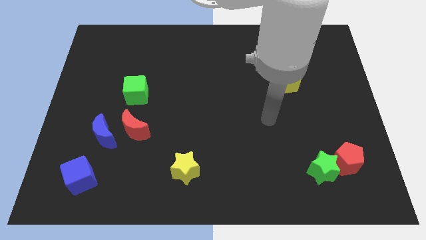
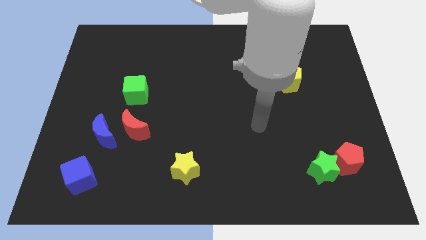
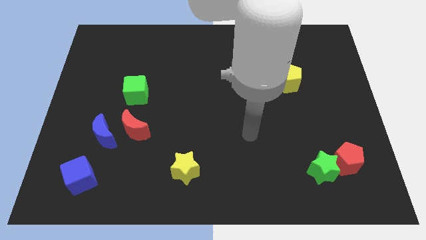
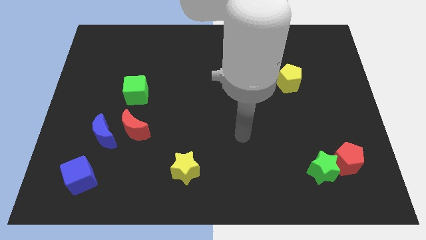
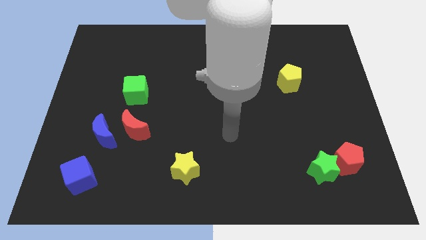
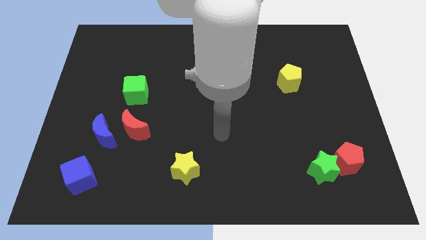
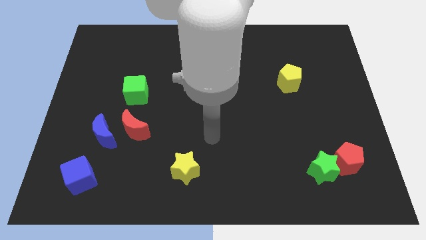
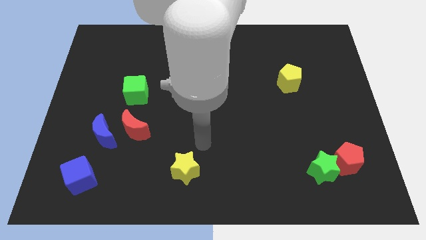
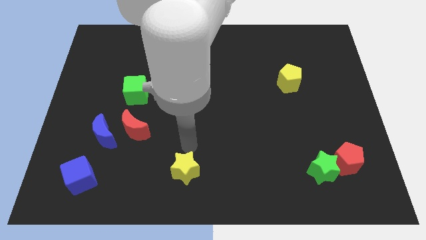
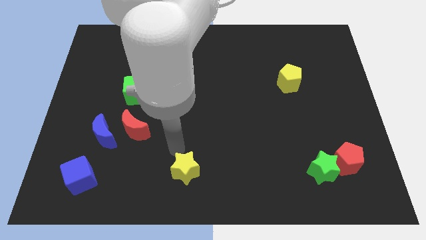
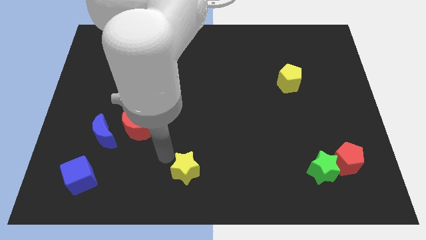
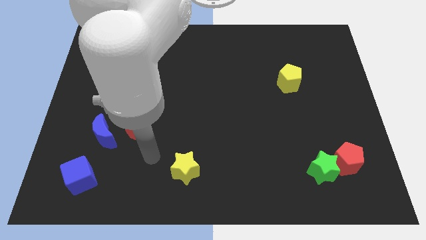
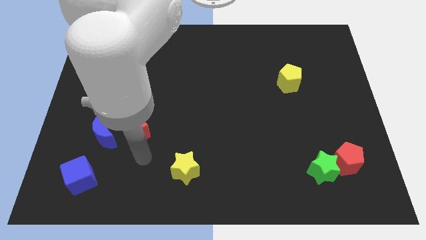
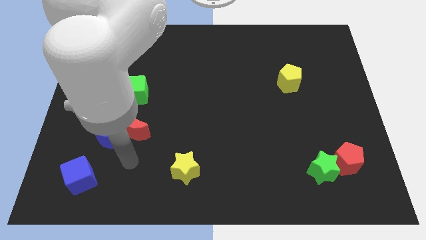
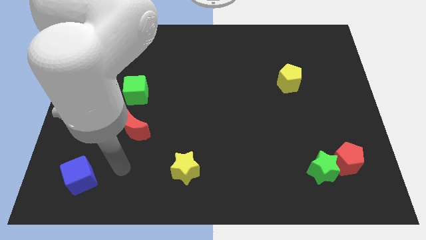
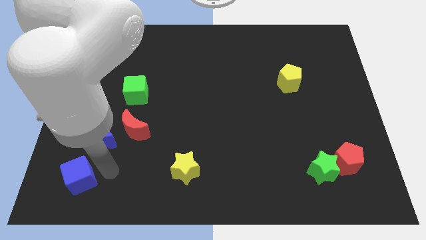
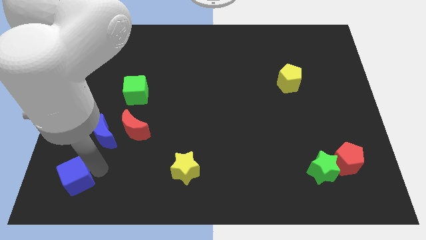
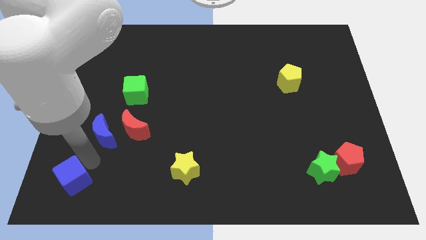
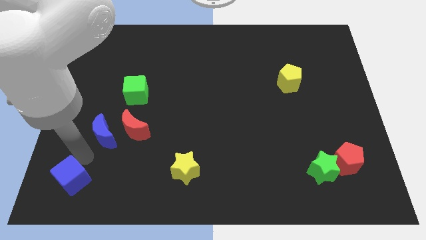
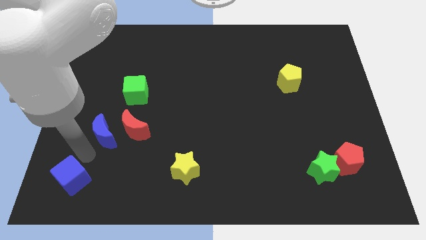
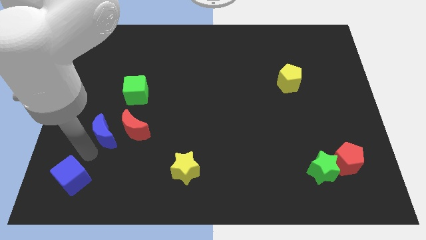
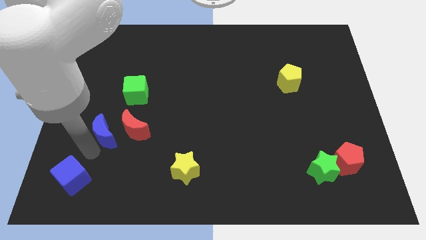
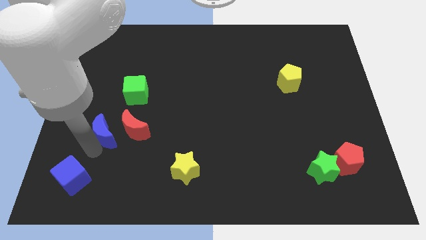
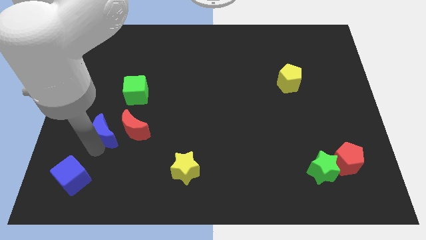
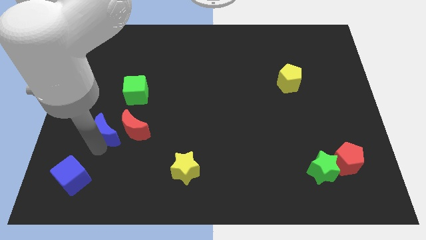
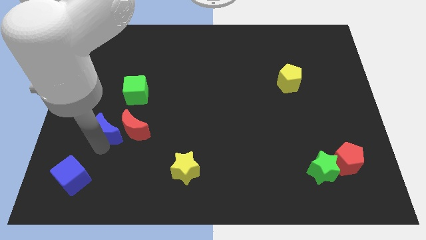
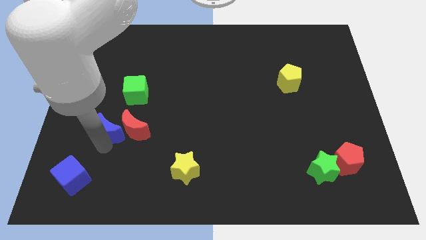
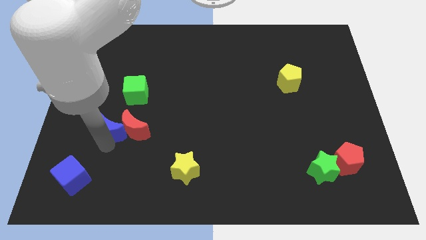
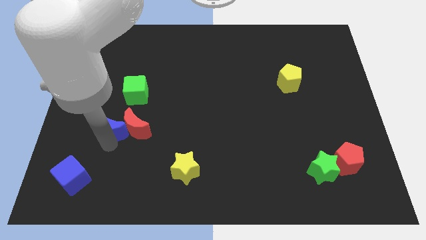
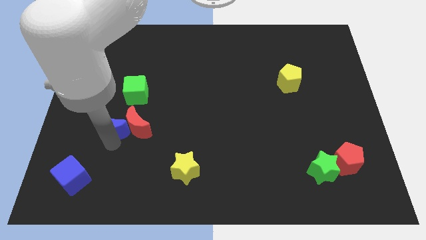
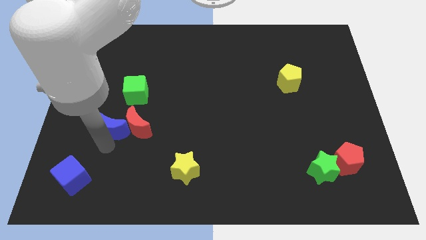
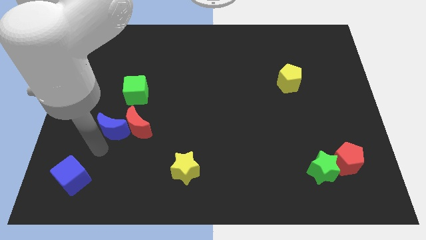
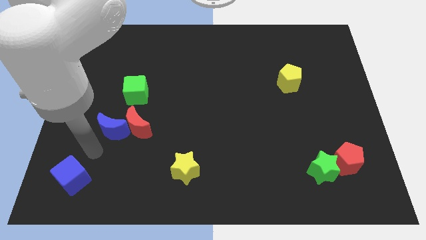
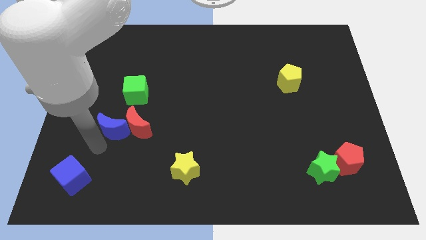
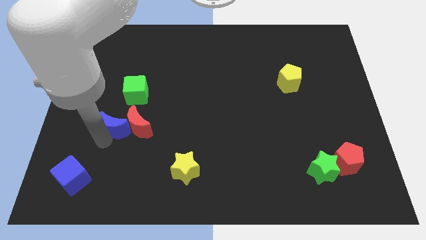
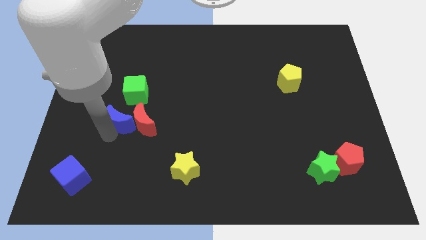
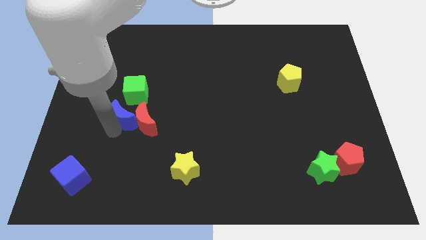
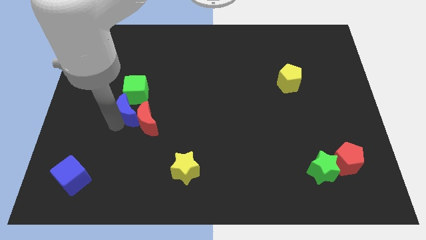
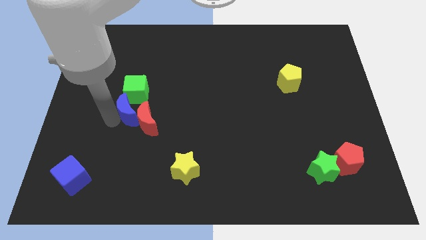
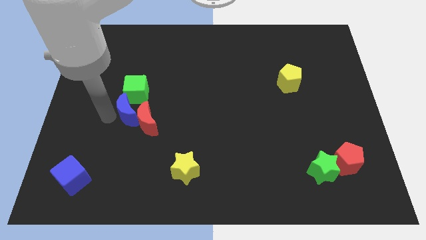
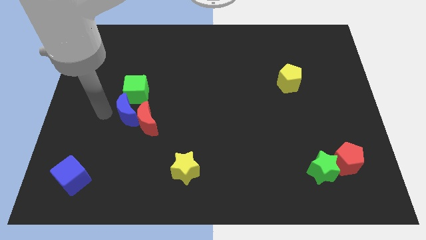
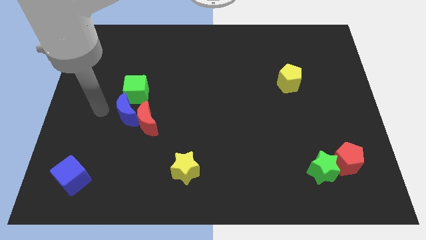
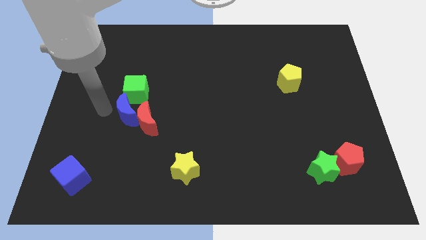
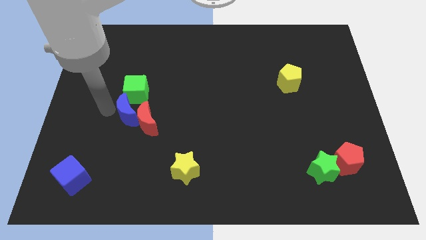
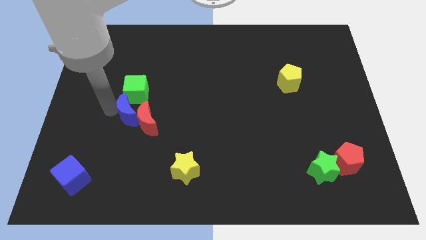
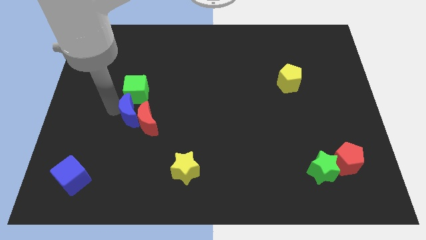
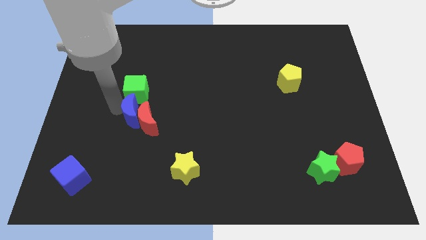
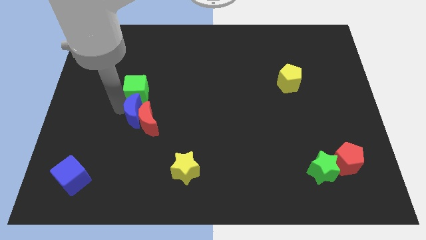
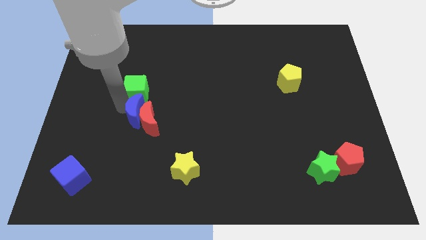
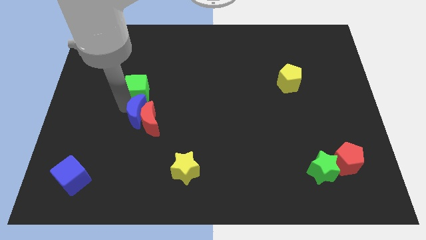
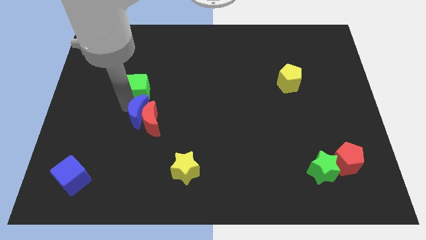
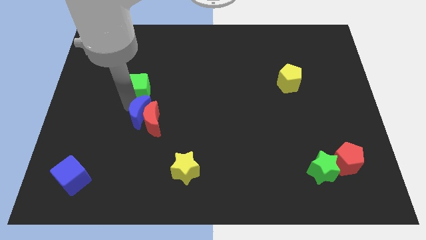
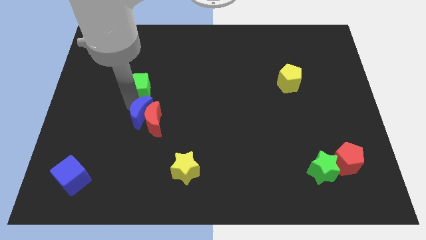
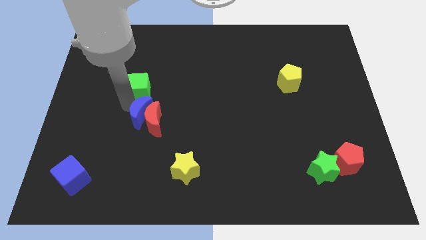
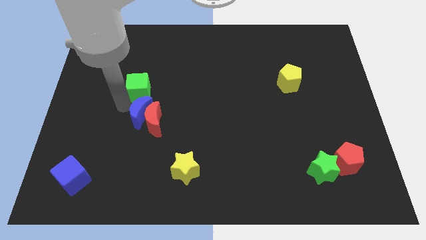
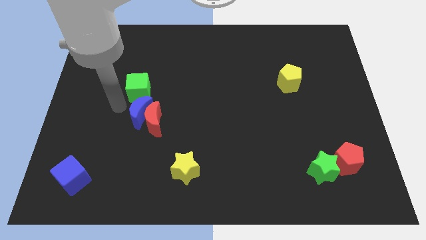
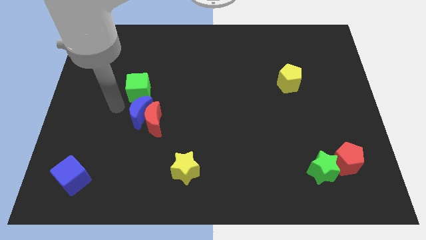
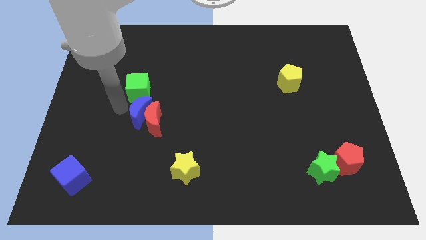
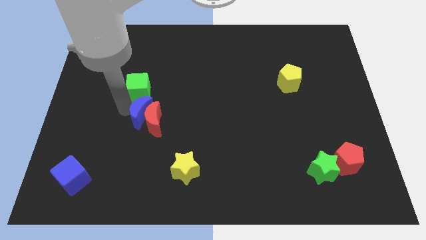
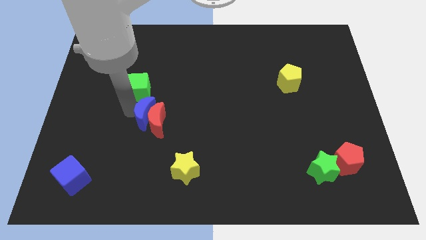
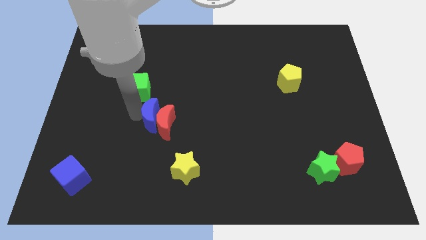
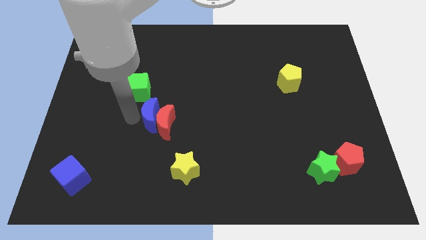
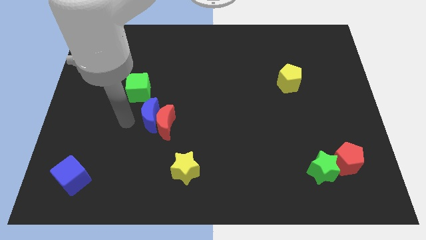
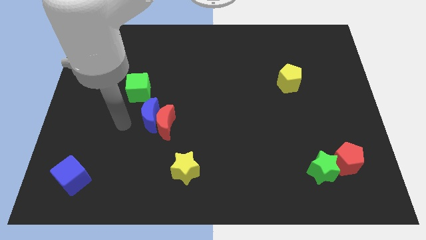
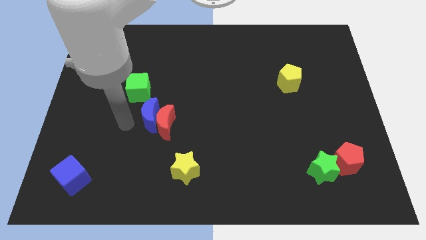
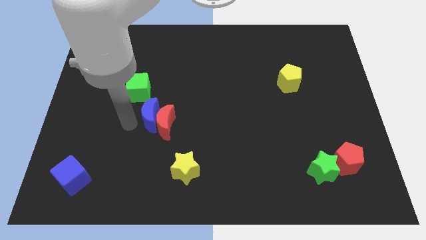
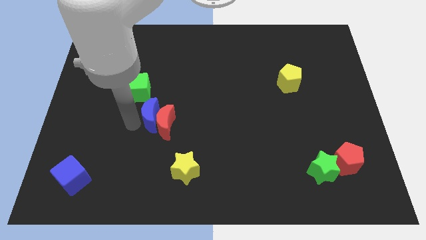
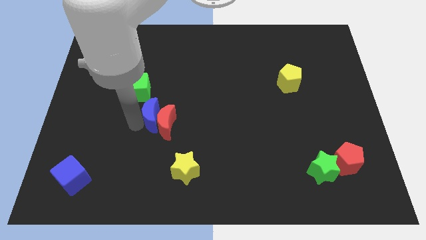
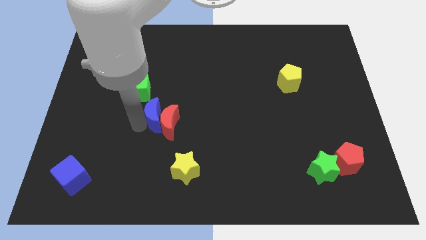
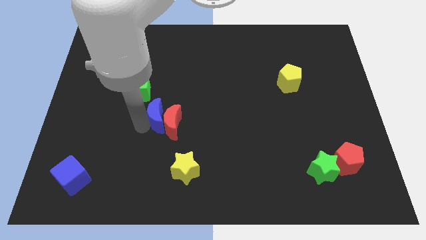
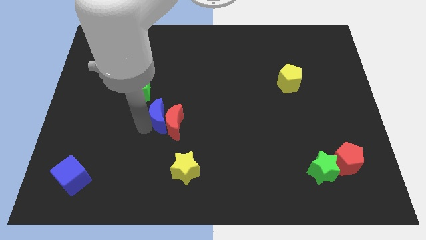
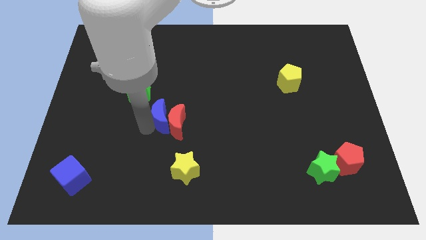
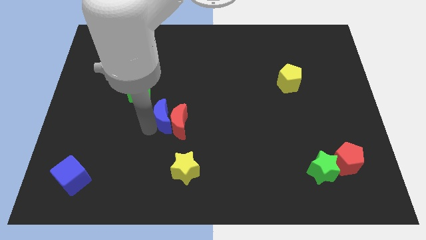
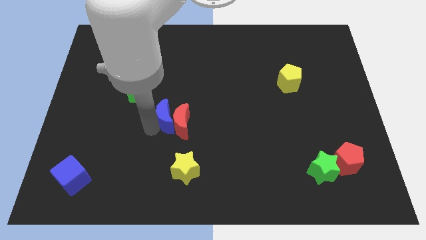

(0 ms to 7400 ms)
put the blue moon to the center
